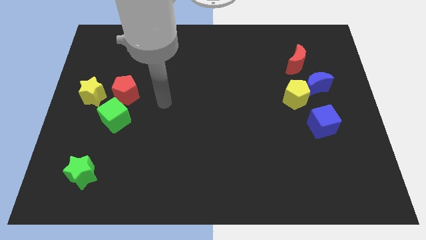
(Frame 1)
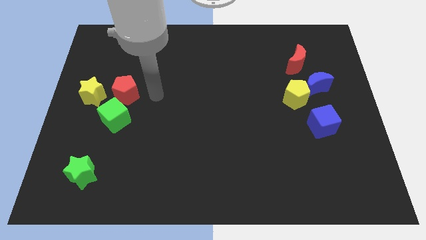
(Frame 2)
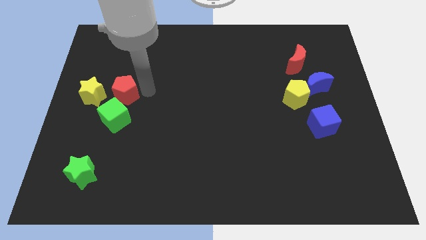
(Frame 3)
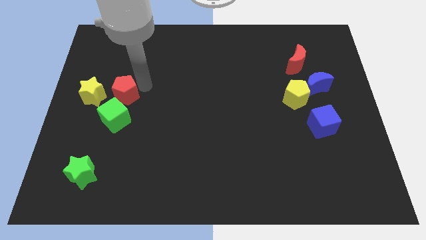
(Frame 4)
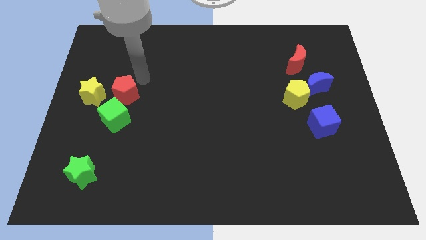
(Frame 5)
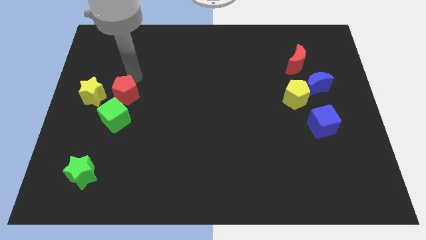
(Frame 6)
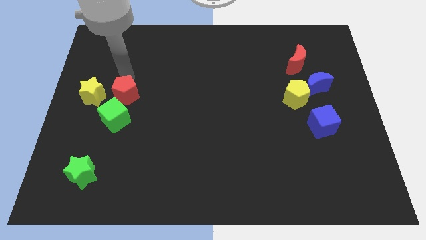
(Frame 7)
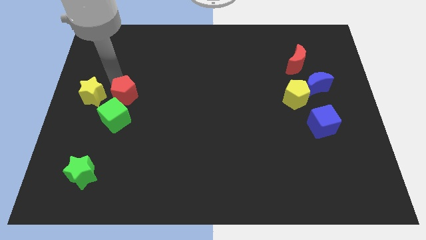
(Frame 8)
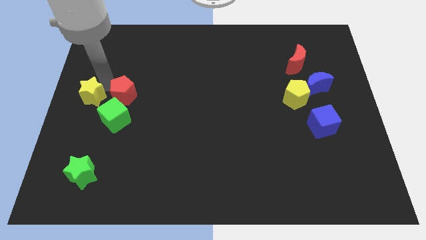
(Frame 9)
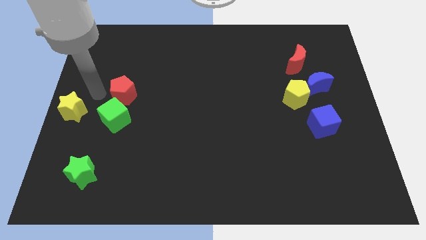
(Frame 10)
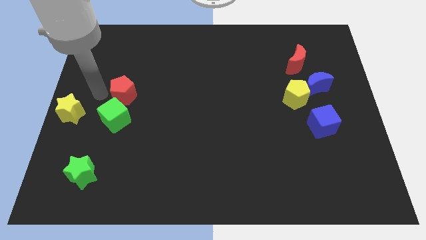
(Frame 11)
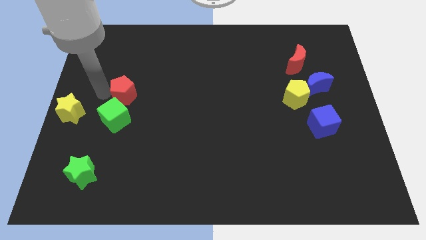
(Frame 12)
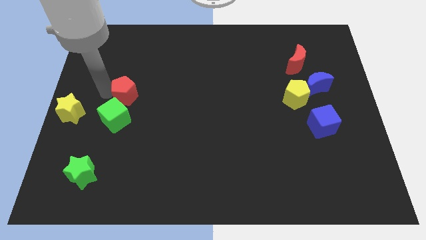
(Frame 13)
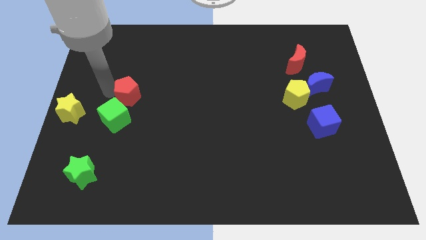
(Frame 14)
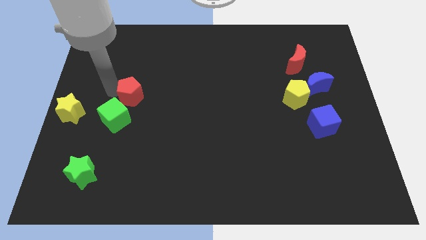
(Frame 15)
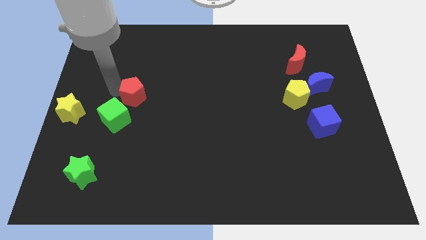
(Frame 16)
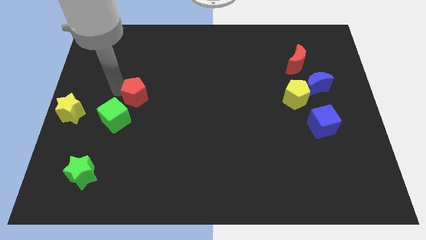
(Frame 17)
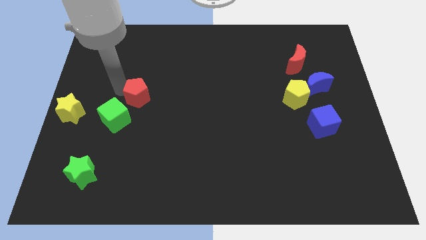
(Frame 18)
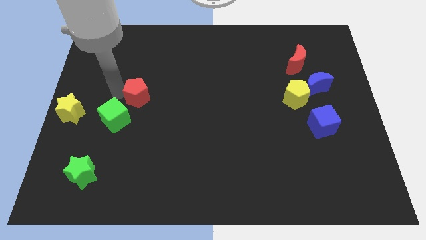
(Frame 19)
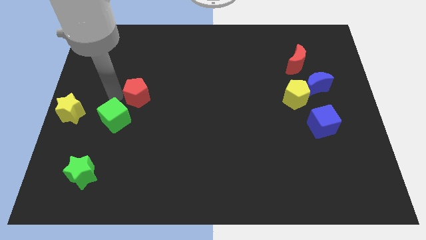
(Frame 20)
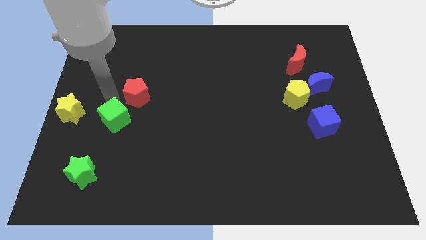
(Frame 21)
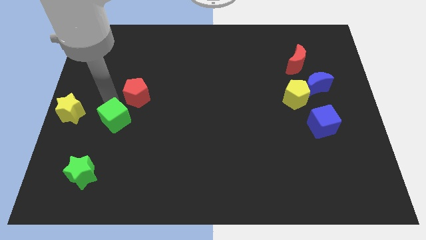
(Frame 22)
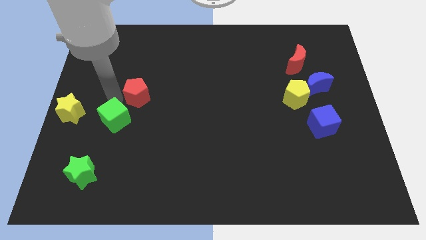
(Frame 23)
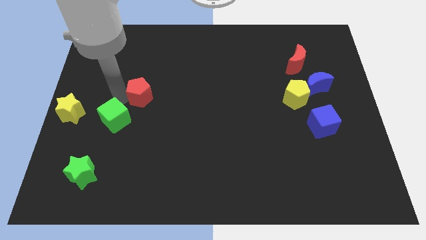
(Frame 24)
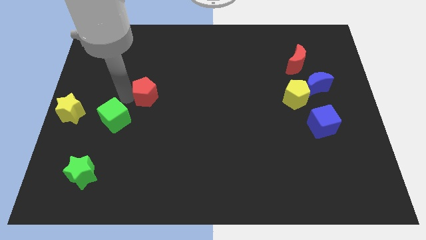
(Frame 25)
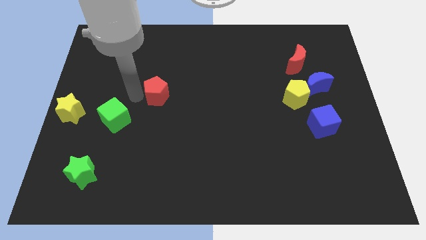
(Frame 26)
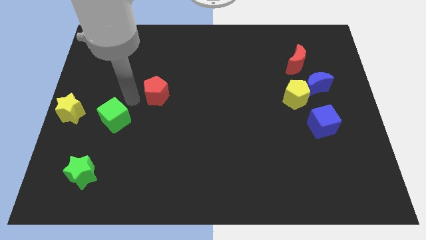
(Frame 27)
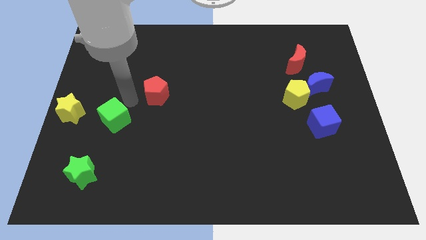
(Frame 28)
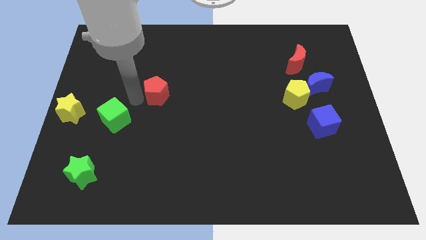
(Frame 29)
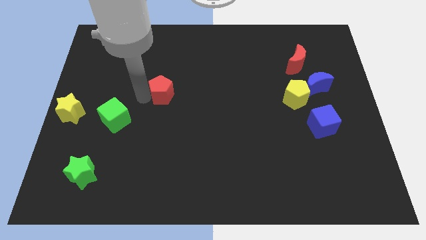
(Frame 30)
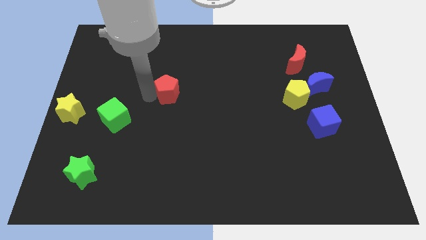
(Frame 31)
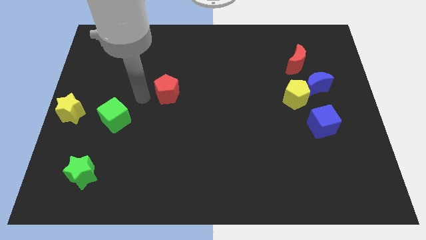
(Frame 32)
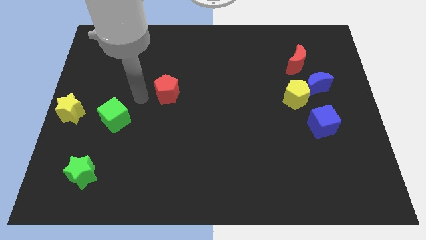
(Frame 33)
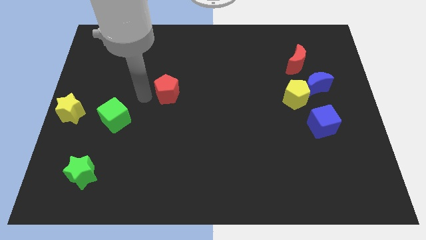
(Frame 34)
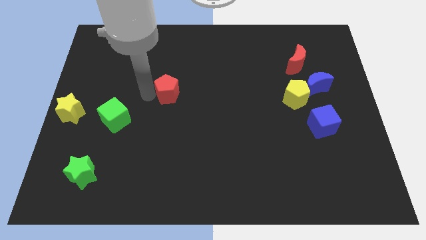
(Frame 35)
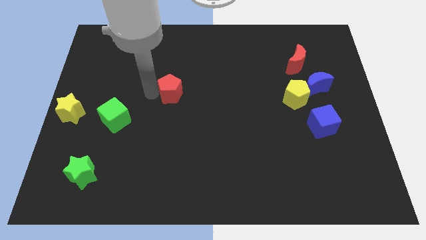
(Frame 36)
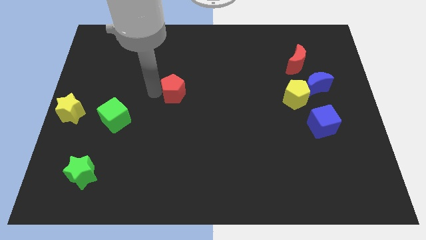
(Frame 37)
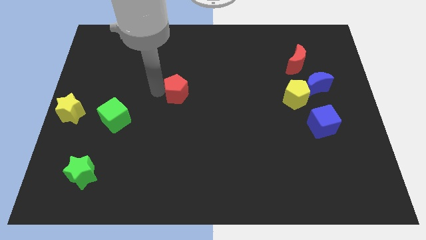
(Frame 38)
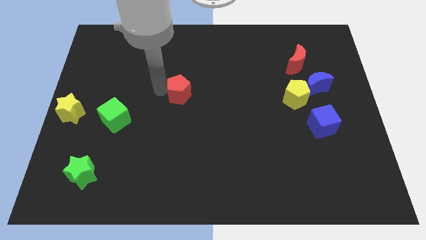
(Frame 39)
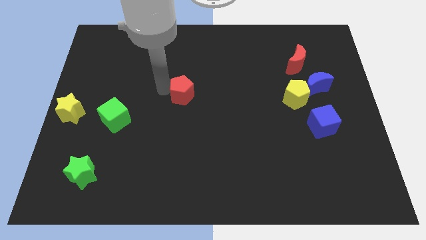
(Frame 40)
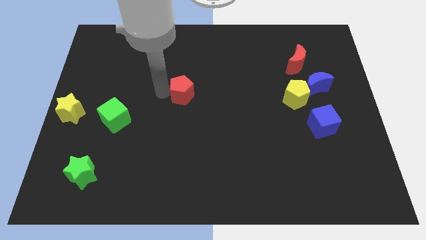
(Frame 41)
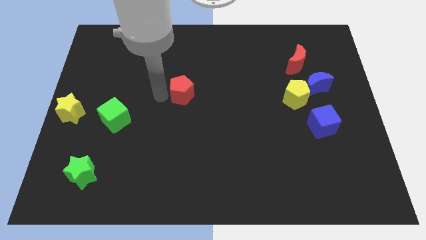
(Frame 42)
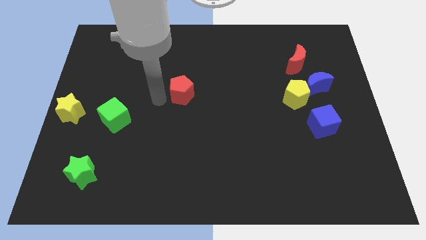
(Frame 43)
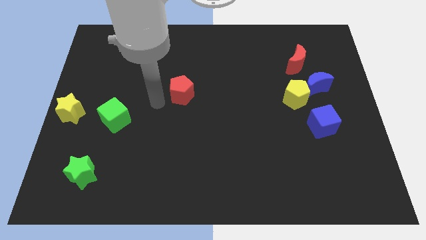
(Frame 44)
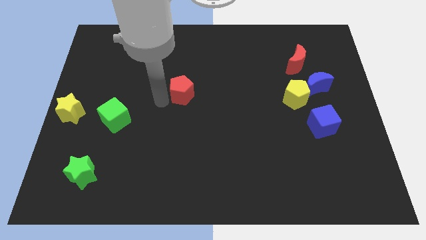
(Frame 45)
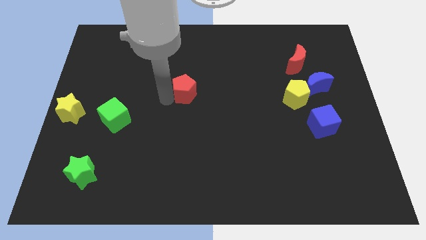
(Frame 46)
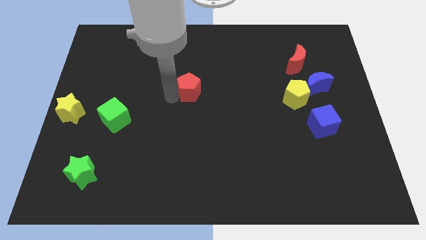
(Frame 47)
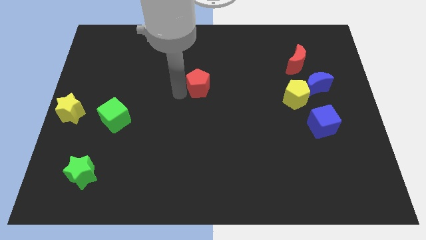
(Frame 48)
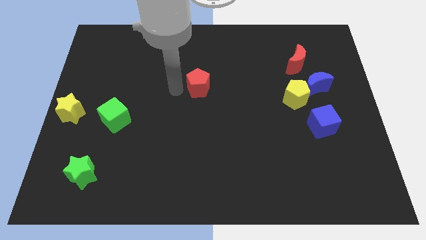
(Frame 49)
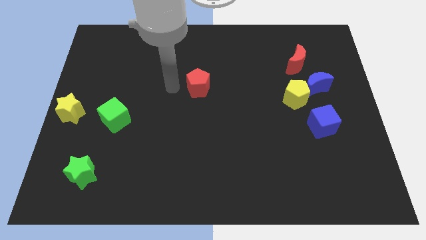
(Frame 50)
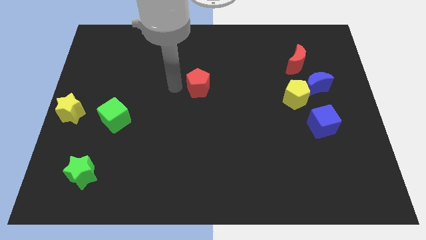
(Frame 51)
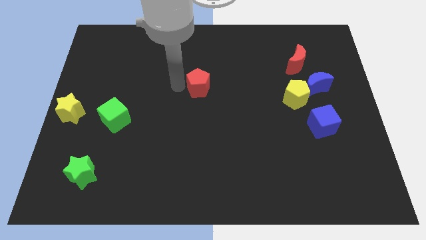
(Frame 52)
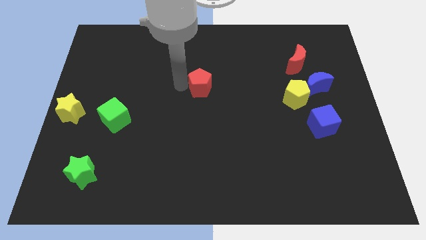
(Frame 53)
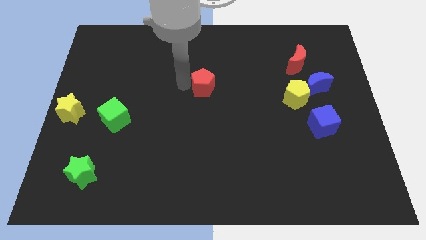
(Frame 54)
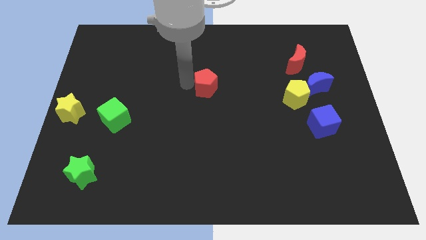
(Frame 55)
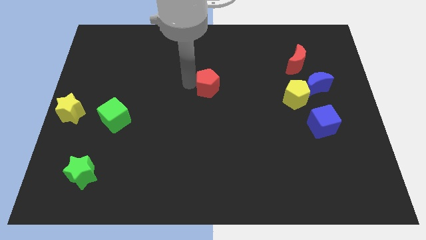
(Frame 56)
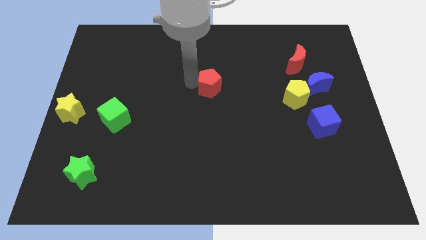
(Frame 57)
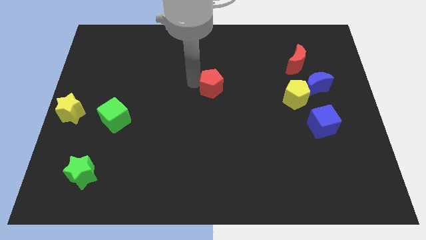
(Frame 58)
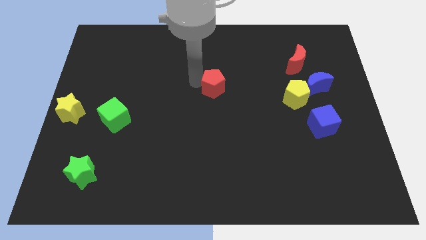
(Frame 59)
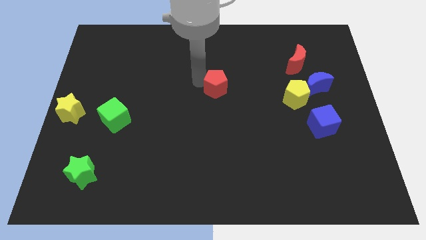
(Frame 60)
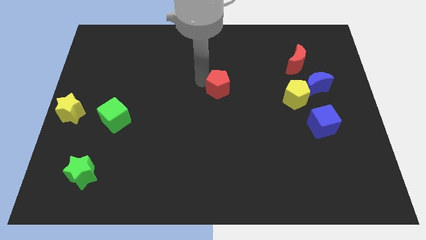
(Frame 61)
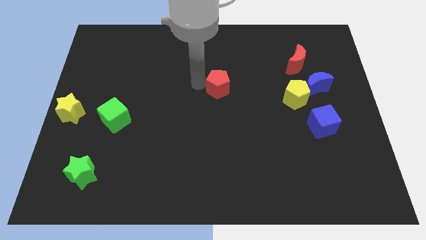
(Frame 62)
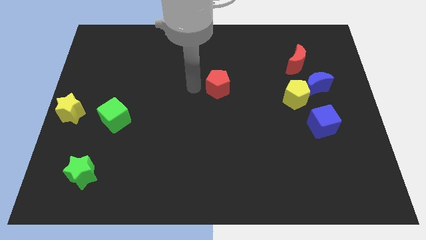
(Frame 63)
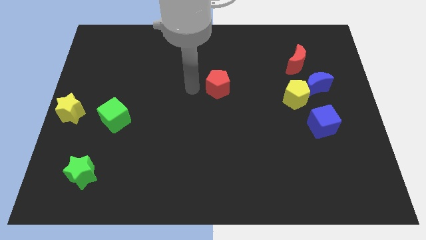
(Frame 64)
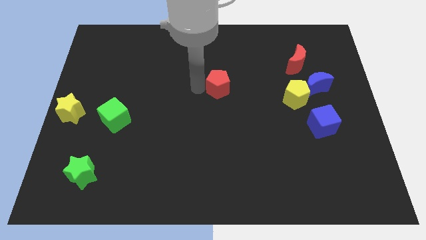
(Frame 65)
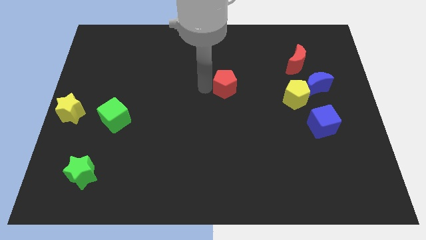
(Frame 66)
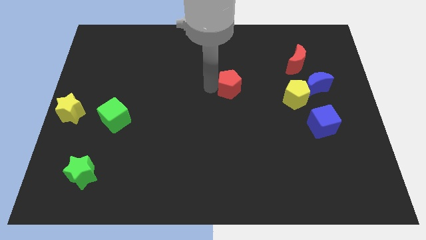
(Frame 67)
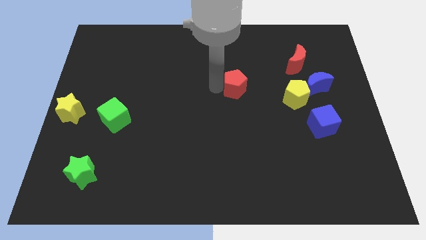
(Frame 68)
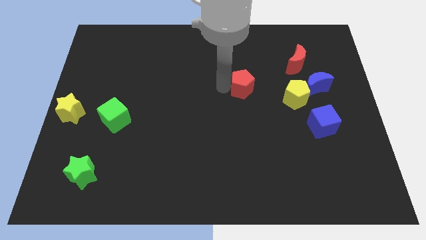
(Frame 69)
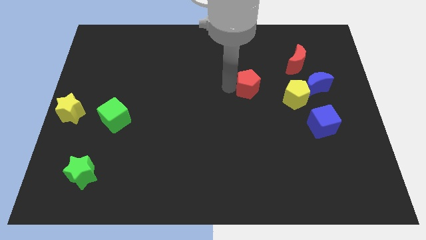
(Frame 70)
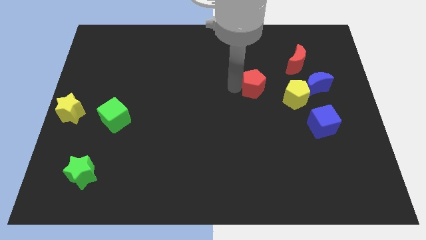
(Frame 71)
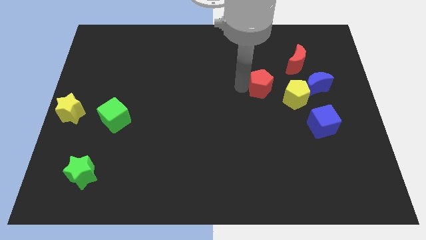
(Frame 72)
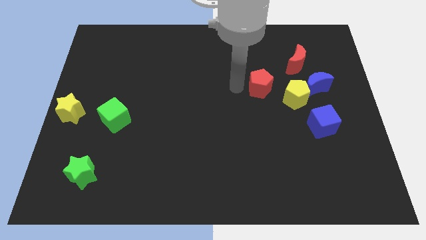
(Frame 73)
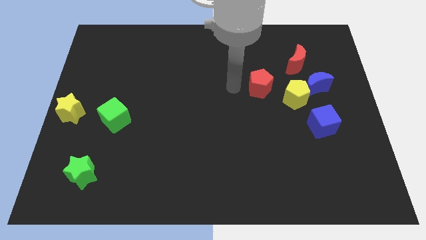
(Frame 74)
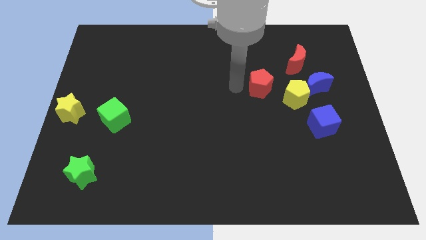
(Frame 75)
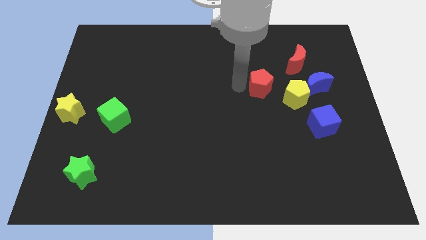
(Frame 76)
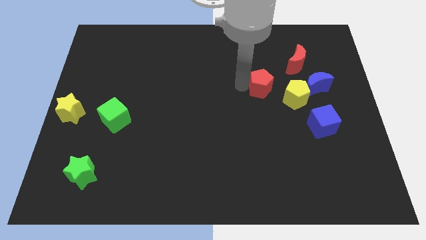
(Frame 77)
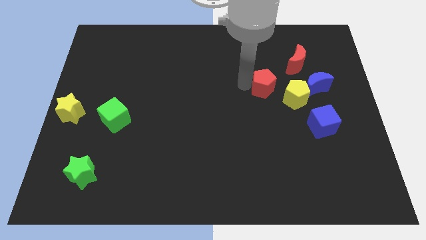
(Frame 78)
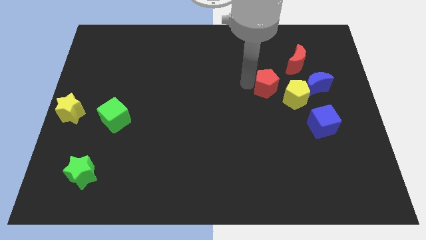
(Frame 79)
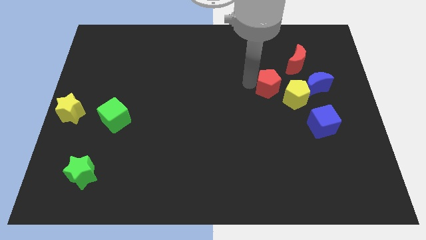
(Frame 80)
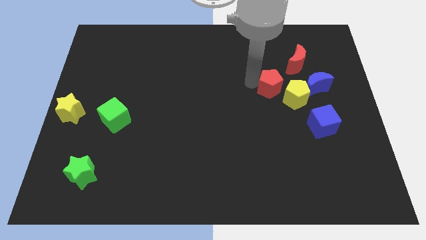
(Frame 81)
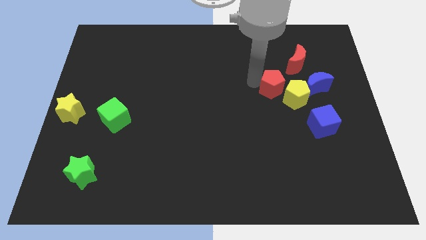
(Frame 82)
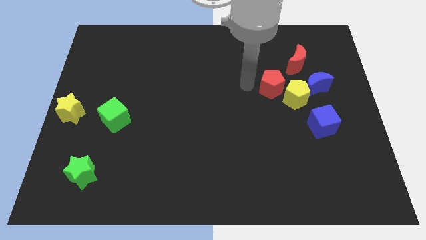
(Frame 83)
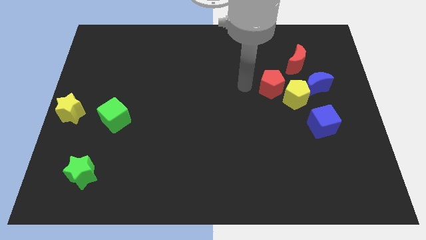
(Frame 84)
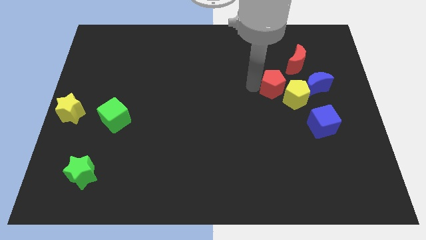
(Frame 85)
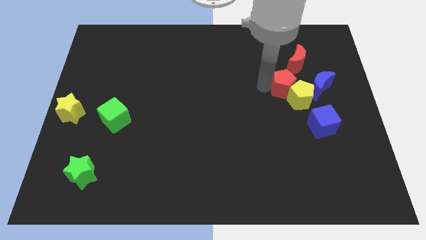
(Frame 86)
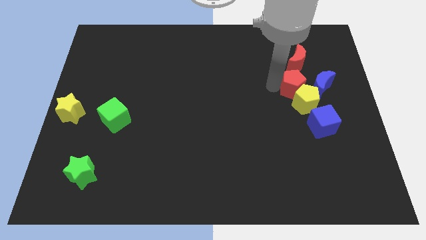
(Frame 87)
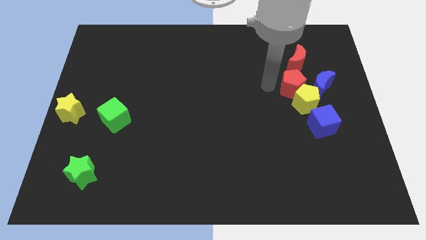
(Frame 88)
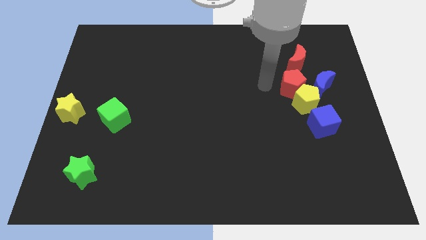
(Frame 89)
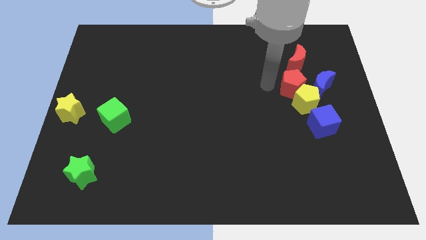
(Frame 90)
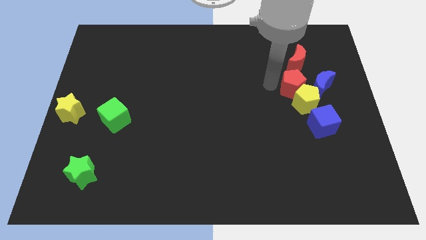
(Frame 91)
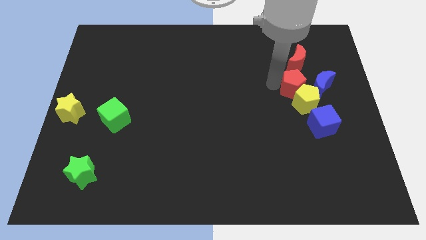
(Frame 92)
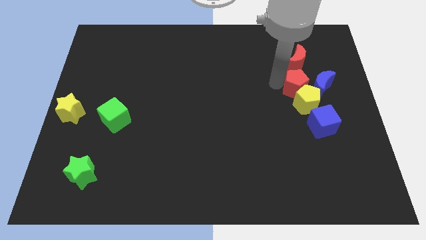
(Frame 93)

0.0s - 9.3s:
slide the red pentagon next to the blue moon
